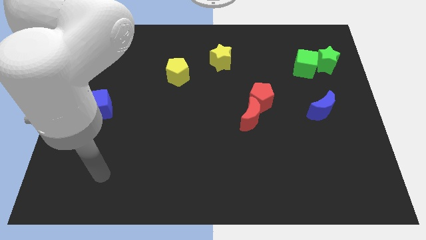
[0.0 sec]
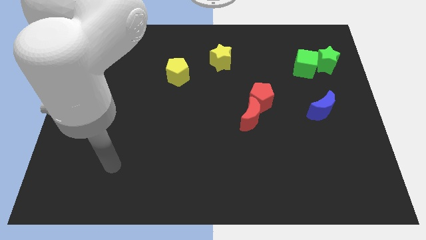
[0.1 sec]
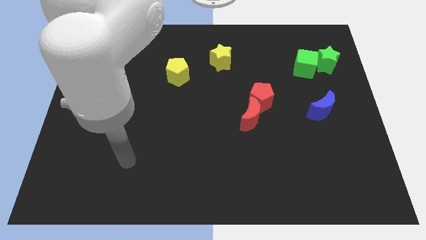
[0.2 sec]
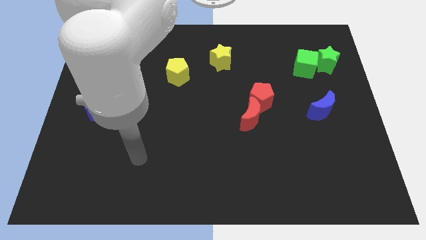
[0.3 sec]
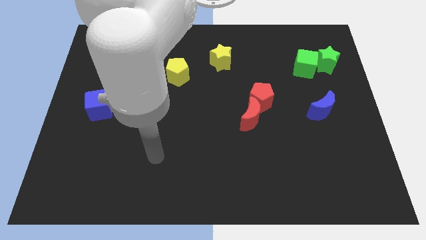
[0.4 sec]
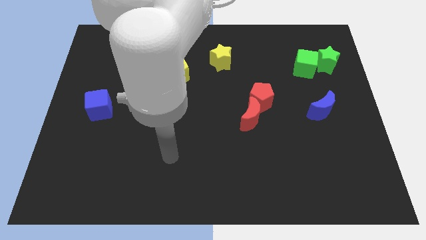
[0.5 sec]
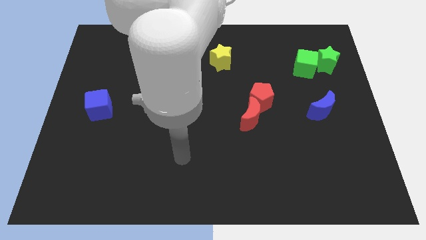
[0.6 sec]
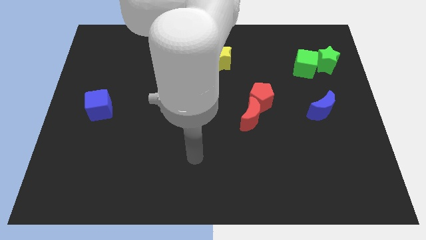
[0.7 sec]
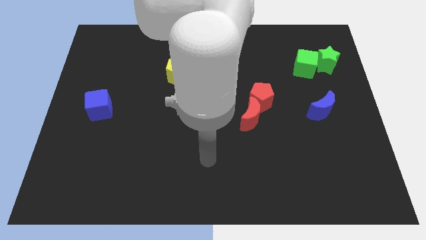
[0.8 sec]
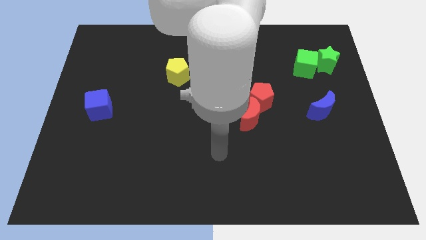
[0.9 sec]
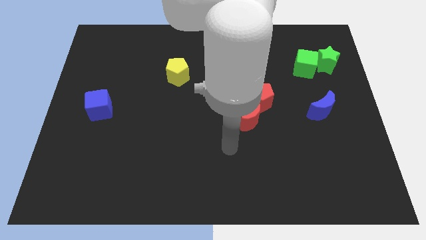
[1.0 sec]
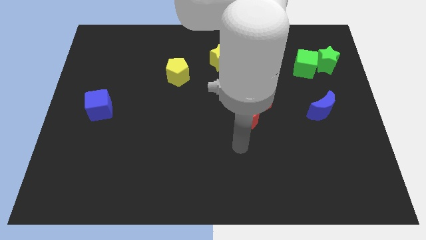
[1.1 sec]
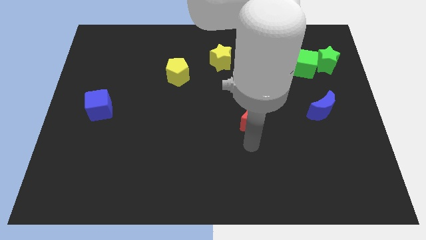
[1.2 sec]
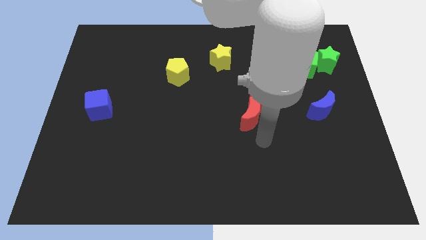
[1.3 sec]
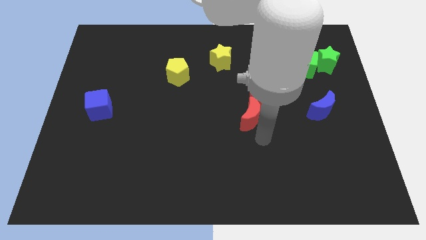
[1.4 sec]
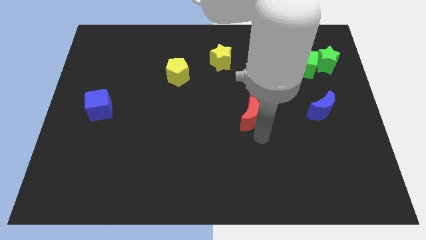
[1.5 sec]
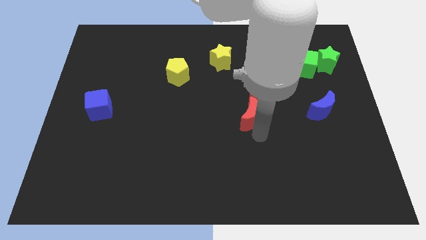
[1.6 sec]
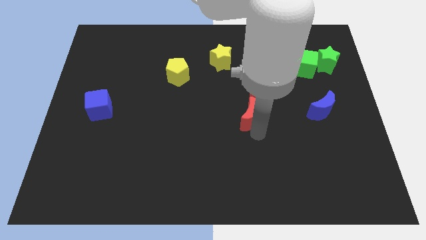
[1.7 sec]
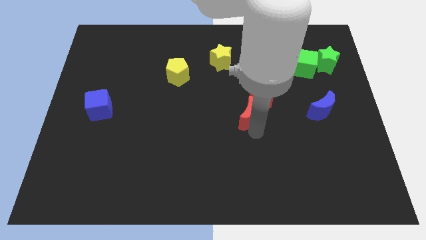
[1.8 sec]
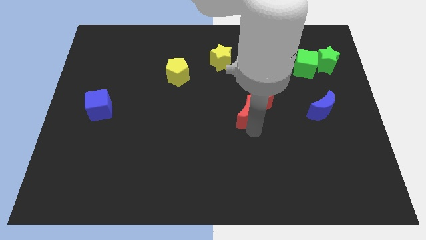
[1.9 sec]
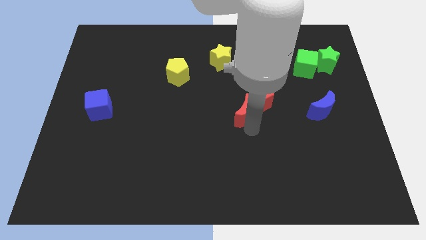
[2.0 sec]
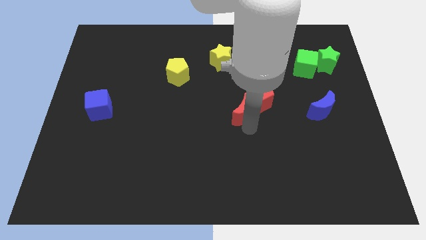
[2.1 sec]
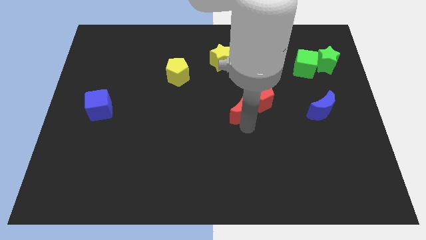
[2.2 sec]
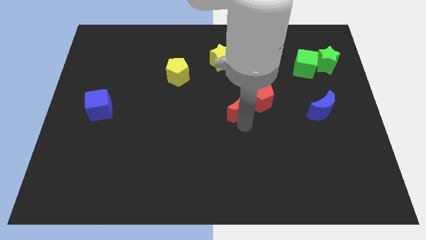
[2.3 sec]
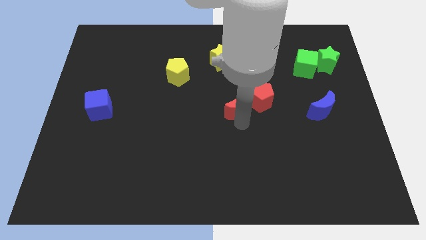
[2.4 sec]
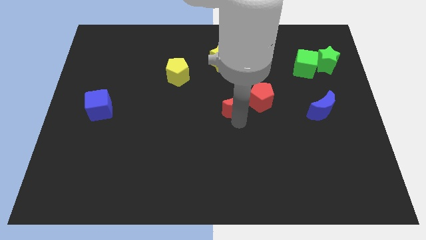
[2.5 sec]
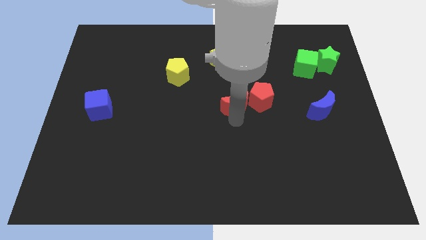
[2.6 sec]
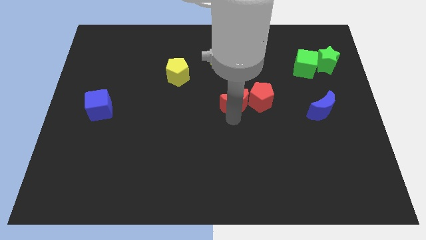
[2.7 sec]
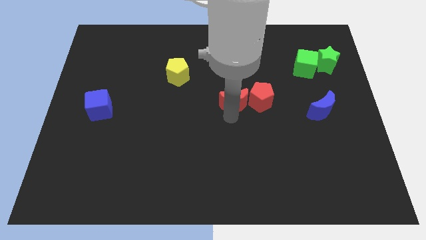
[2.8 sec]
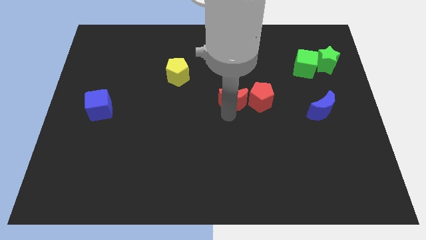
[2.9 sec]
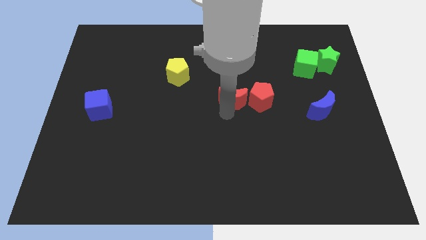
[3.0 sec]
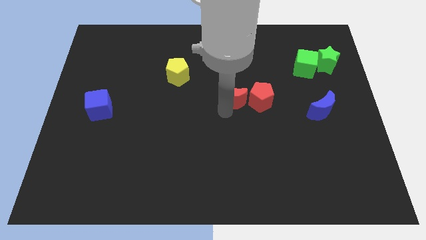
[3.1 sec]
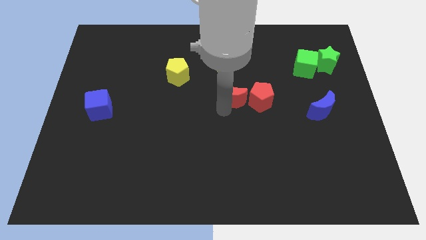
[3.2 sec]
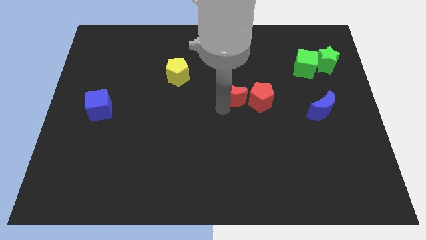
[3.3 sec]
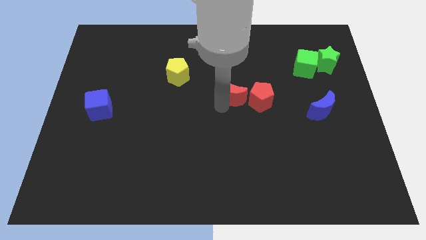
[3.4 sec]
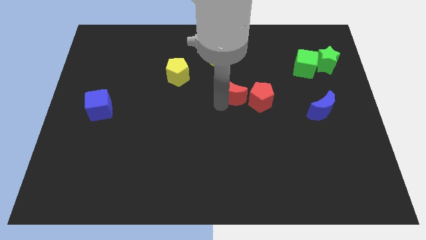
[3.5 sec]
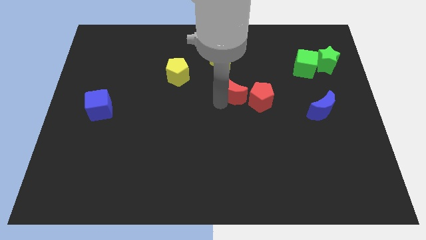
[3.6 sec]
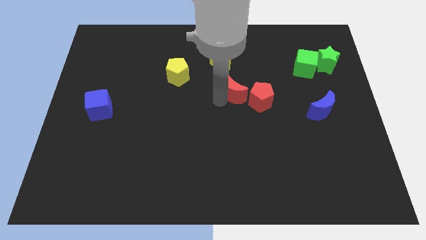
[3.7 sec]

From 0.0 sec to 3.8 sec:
slightly move the red moon up

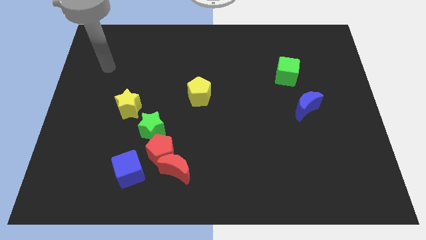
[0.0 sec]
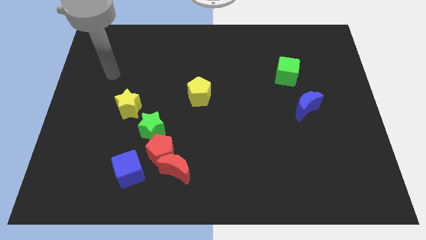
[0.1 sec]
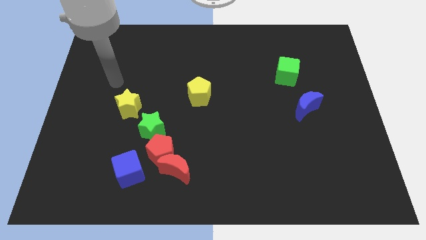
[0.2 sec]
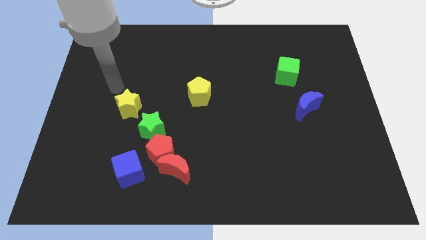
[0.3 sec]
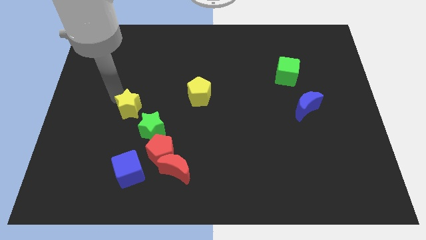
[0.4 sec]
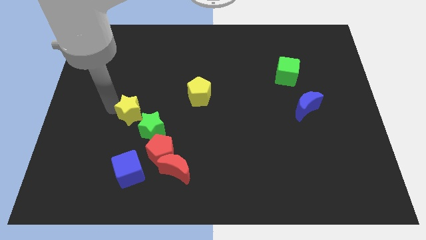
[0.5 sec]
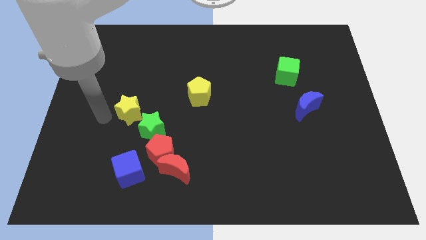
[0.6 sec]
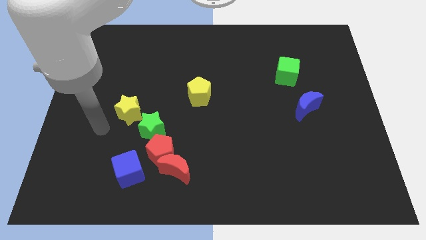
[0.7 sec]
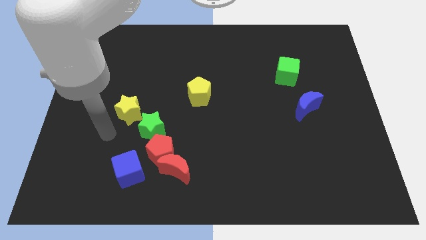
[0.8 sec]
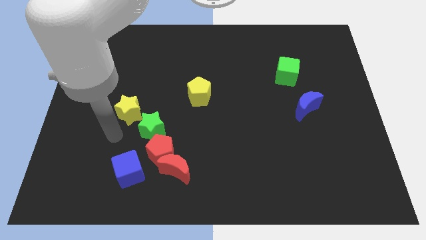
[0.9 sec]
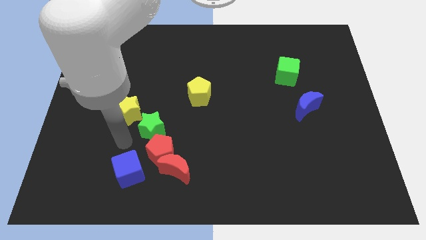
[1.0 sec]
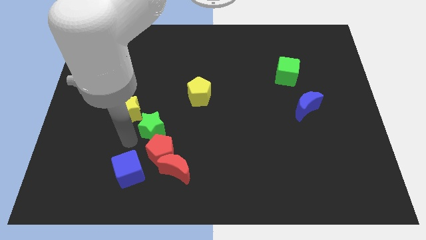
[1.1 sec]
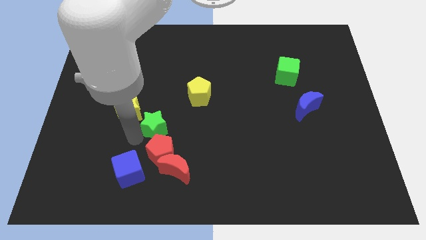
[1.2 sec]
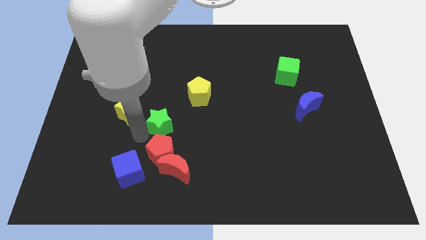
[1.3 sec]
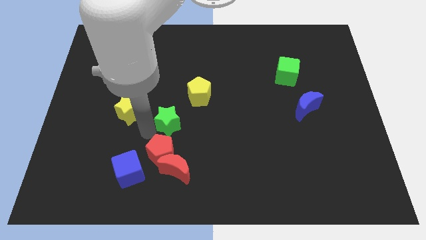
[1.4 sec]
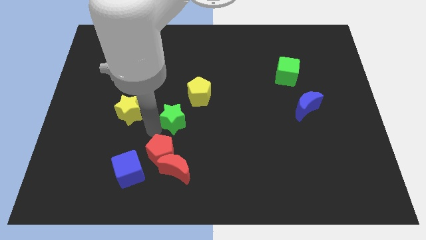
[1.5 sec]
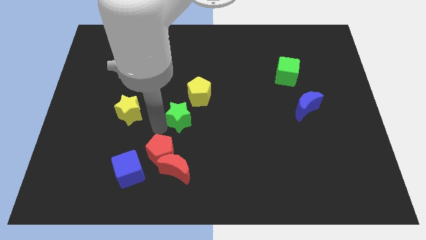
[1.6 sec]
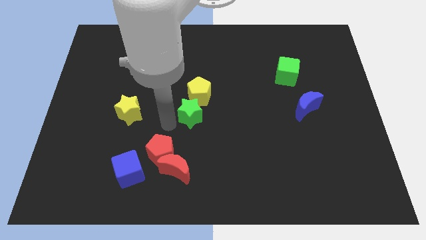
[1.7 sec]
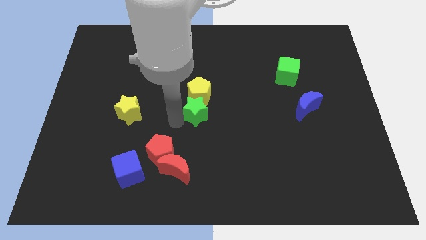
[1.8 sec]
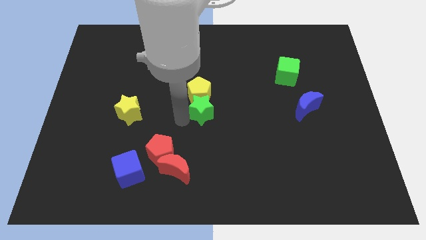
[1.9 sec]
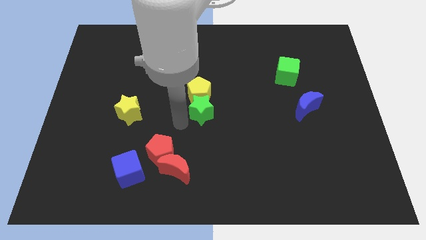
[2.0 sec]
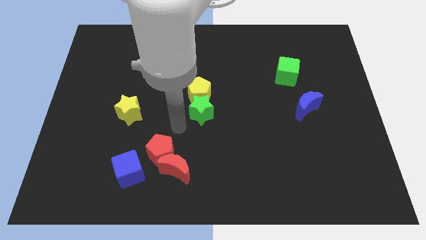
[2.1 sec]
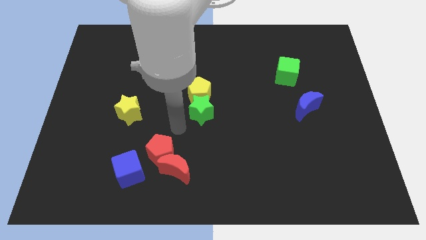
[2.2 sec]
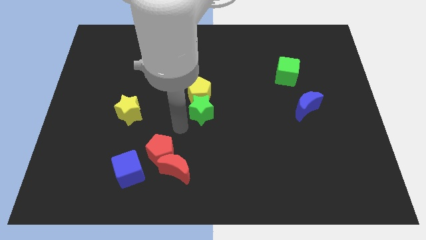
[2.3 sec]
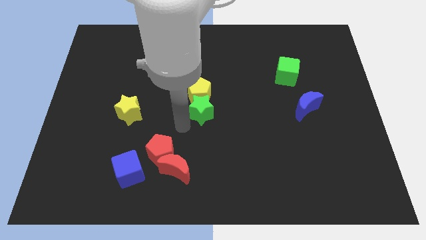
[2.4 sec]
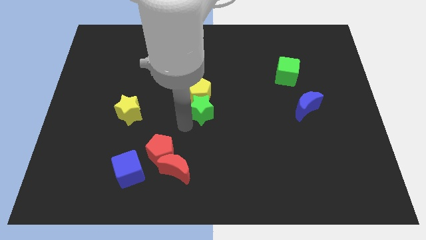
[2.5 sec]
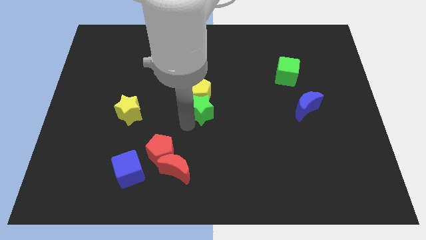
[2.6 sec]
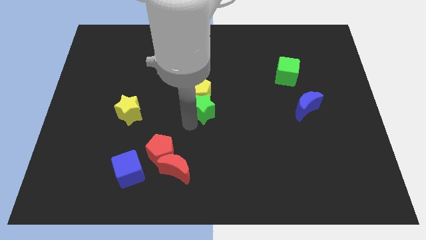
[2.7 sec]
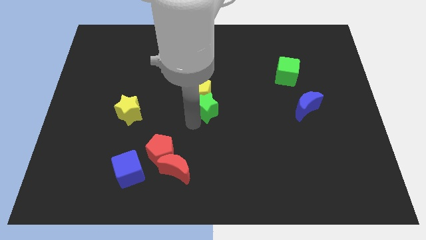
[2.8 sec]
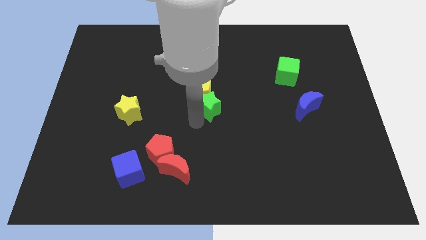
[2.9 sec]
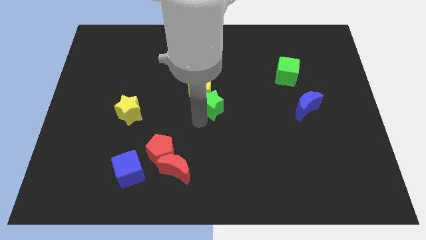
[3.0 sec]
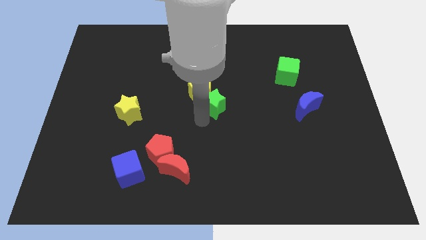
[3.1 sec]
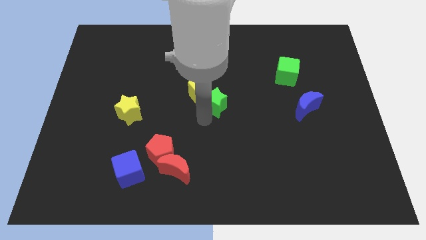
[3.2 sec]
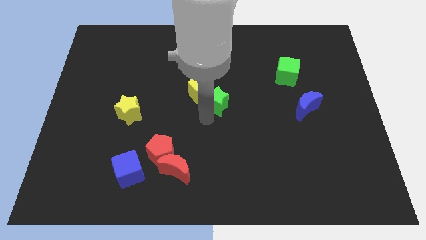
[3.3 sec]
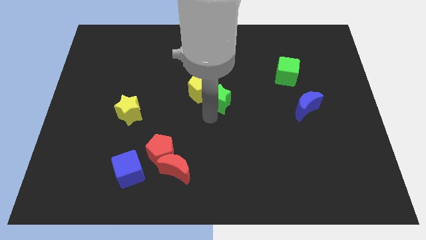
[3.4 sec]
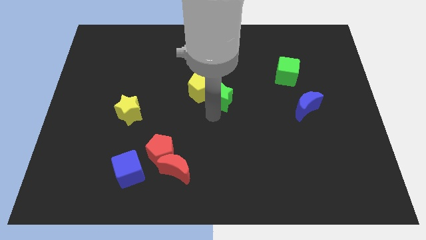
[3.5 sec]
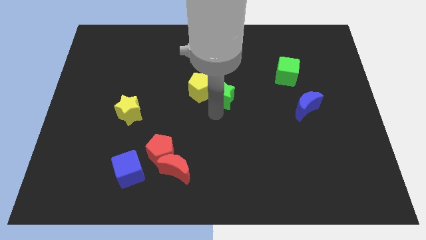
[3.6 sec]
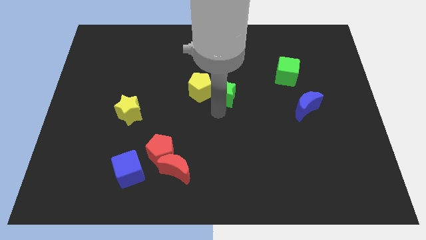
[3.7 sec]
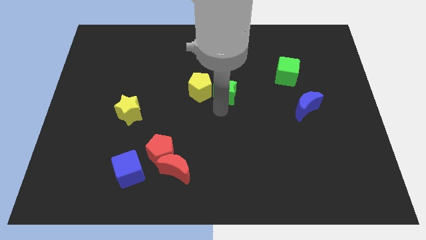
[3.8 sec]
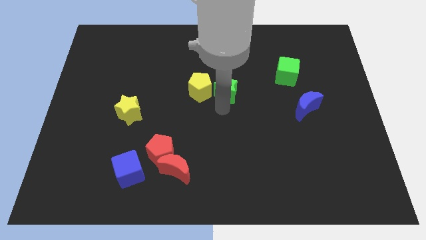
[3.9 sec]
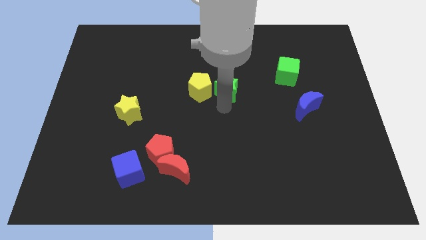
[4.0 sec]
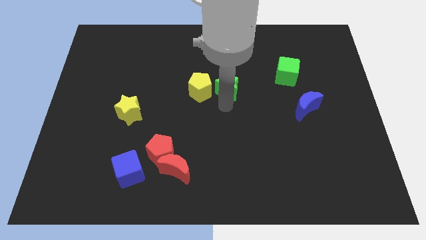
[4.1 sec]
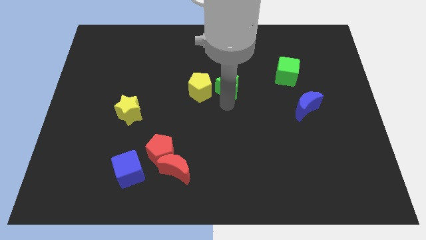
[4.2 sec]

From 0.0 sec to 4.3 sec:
move the green star diagonally up and right
